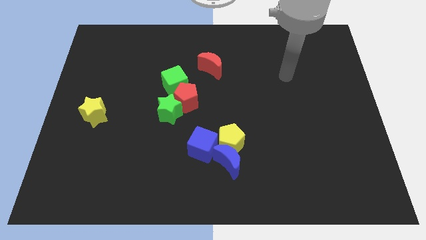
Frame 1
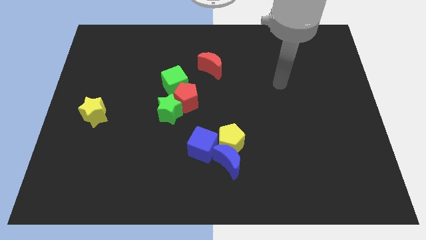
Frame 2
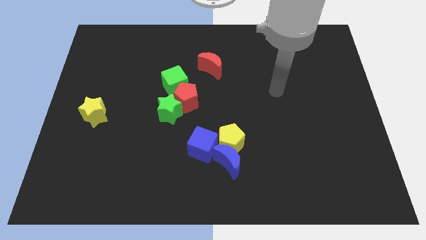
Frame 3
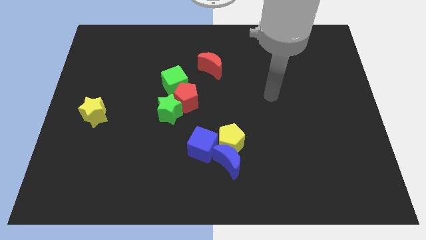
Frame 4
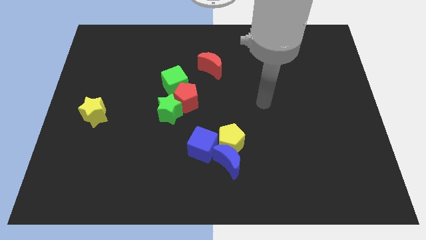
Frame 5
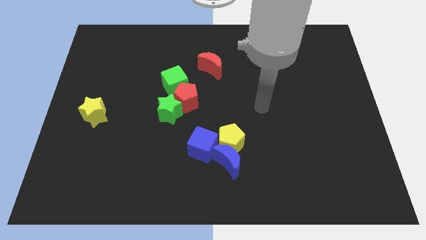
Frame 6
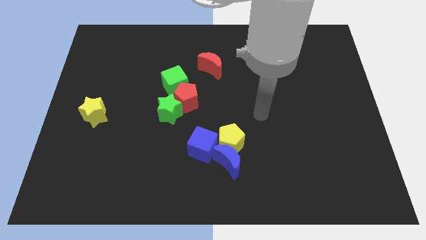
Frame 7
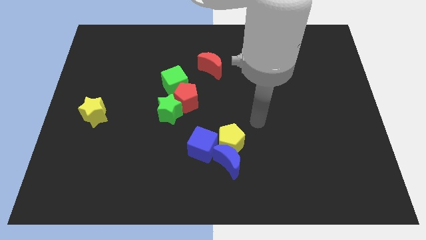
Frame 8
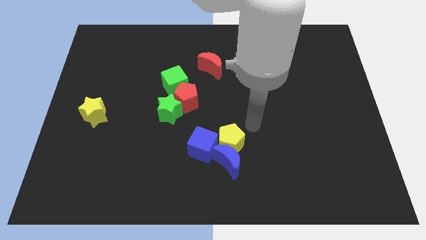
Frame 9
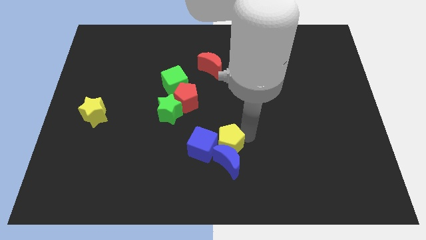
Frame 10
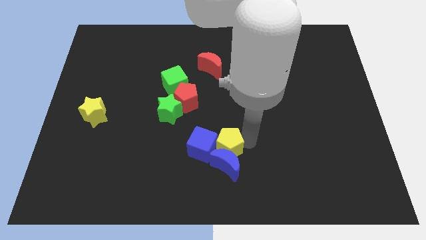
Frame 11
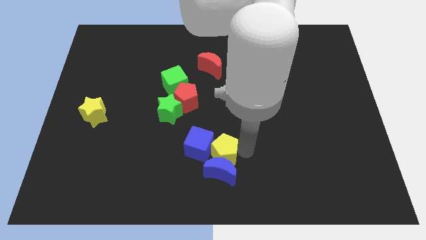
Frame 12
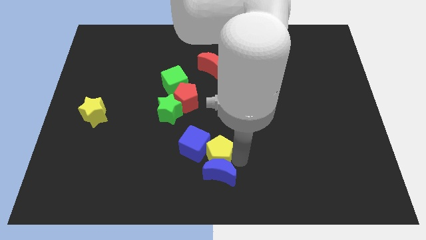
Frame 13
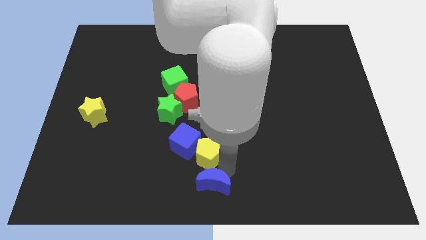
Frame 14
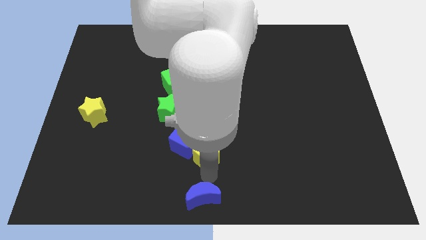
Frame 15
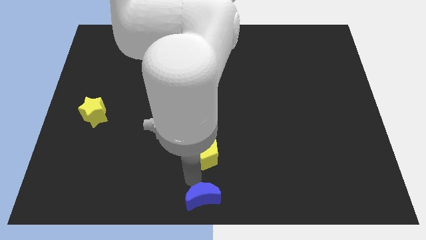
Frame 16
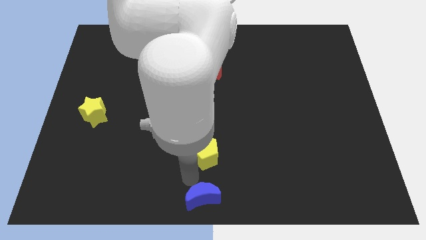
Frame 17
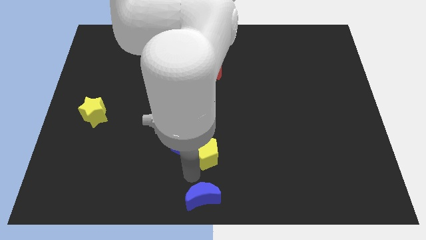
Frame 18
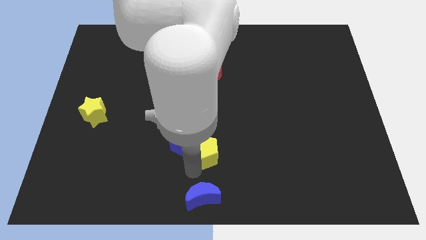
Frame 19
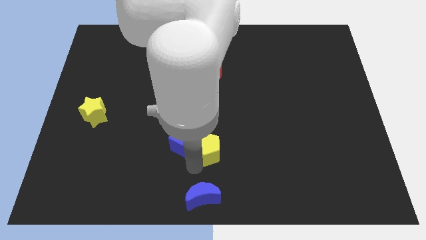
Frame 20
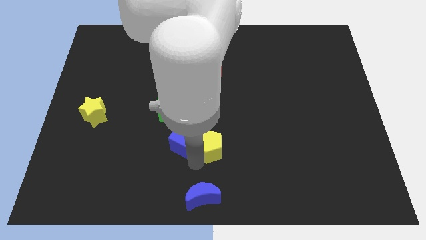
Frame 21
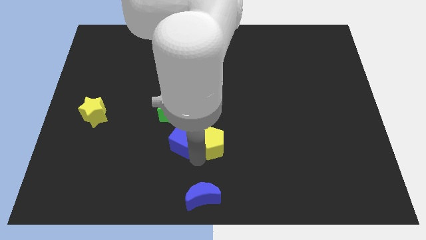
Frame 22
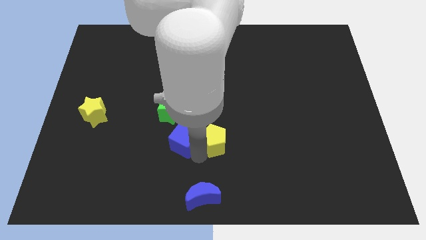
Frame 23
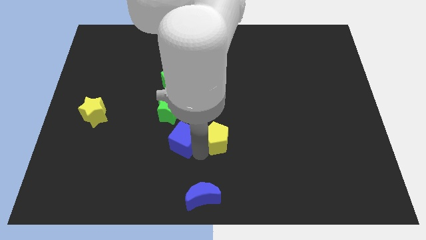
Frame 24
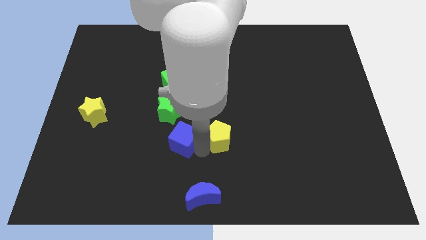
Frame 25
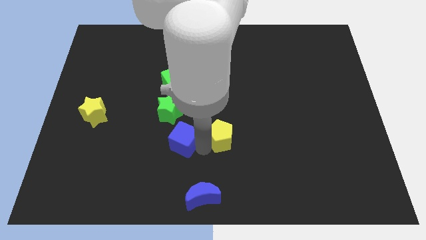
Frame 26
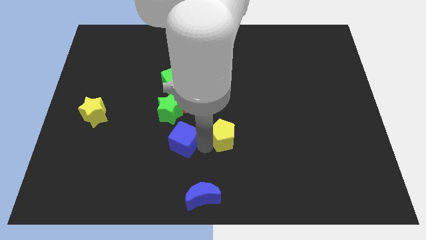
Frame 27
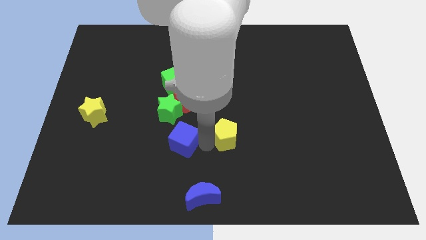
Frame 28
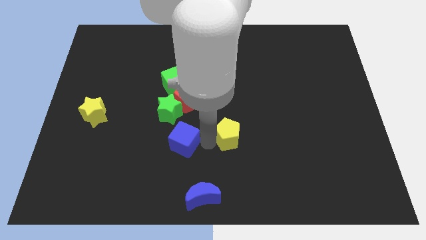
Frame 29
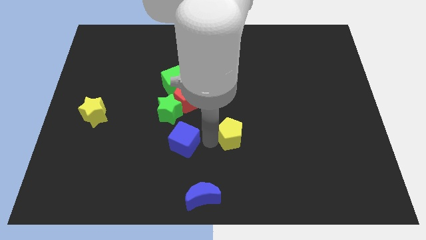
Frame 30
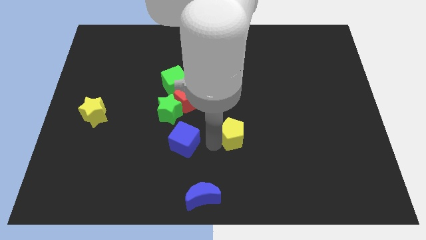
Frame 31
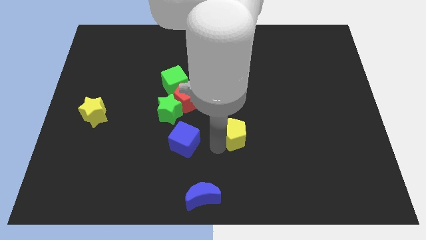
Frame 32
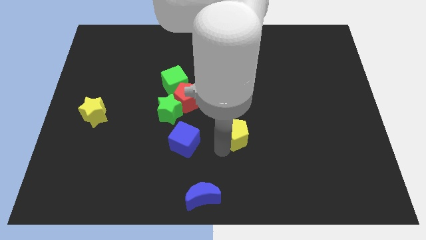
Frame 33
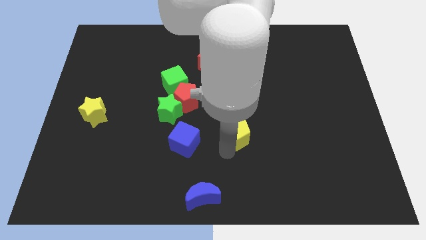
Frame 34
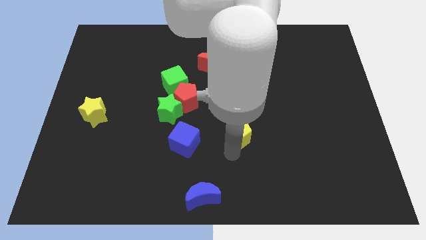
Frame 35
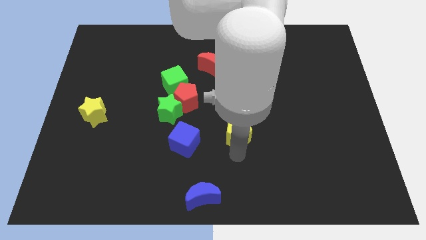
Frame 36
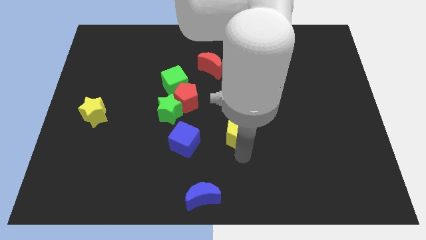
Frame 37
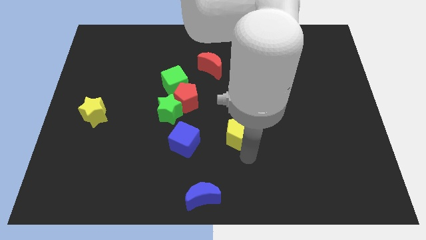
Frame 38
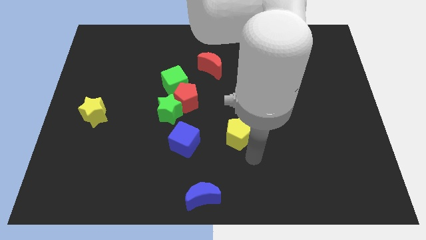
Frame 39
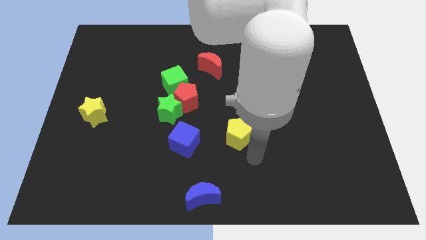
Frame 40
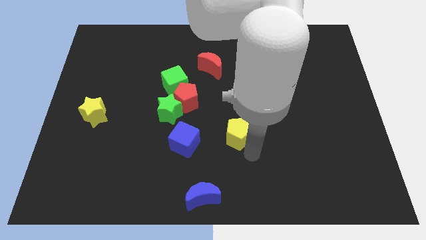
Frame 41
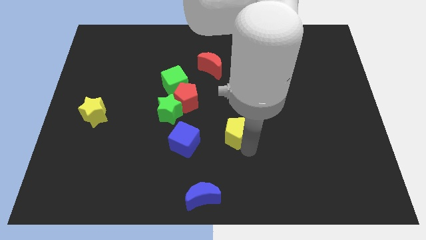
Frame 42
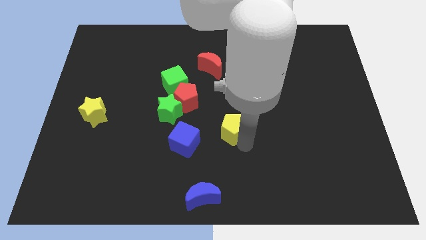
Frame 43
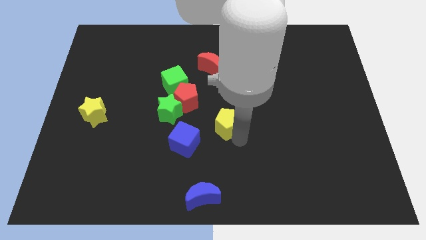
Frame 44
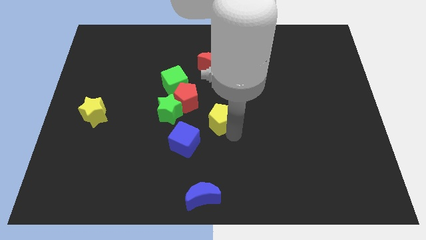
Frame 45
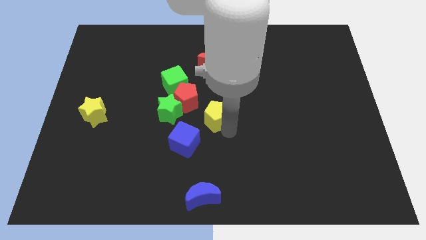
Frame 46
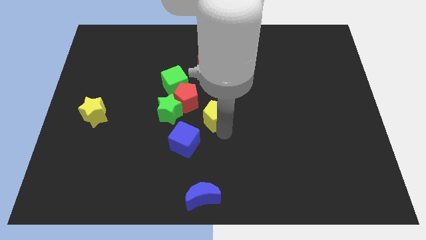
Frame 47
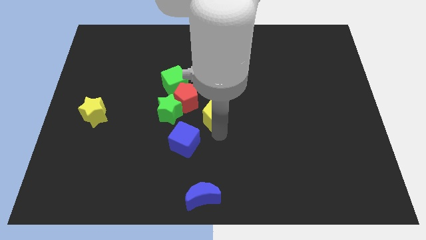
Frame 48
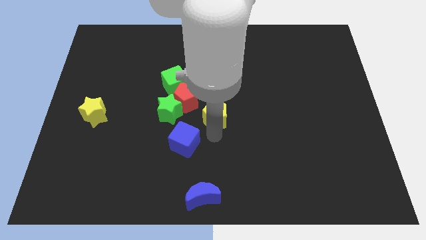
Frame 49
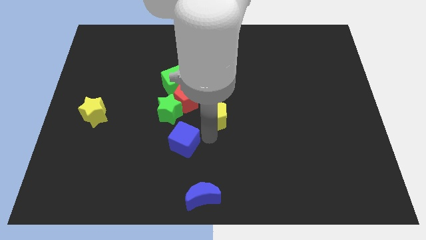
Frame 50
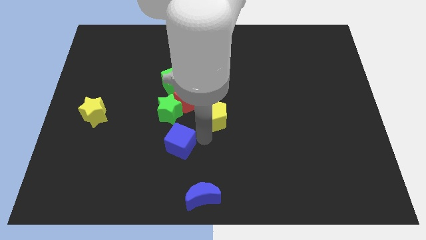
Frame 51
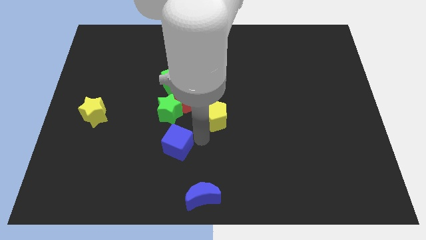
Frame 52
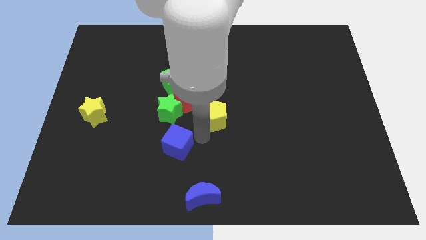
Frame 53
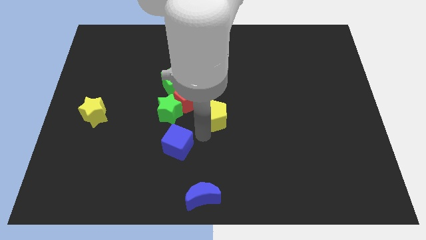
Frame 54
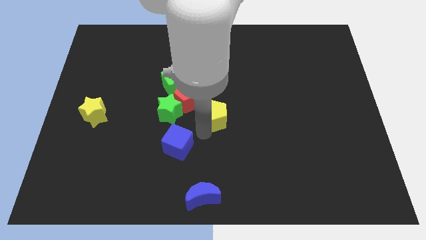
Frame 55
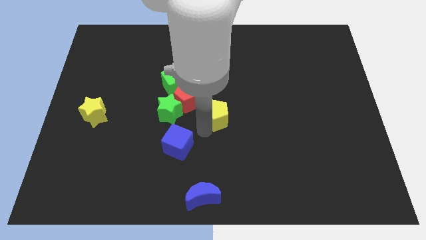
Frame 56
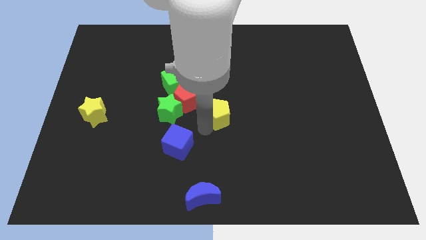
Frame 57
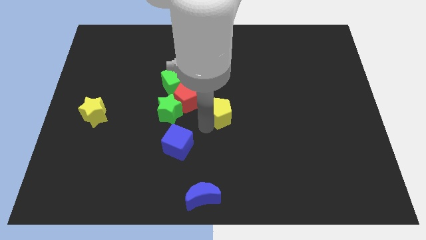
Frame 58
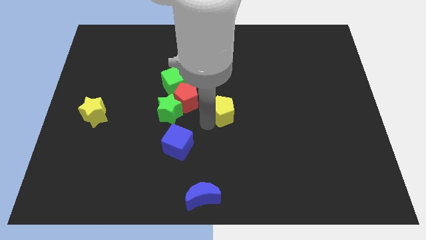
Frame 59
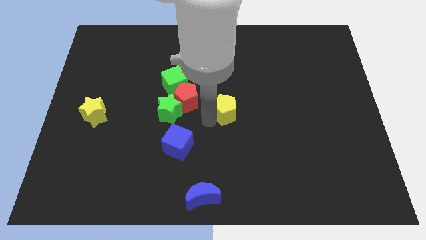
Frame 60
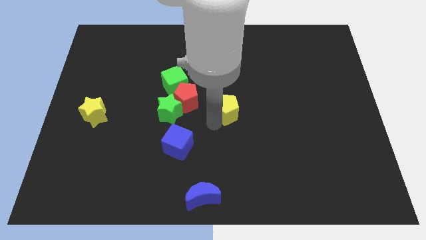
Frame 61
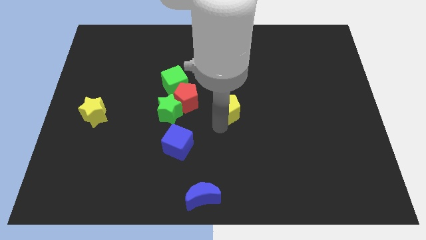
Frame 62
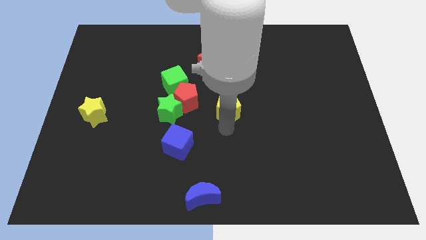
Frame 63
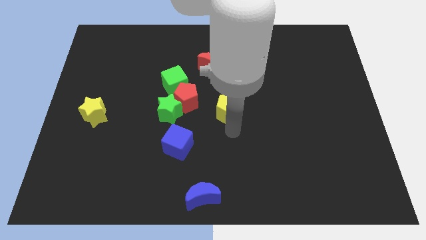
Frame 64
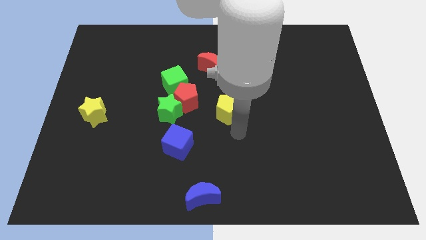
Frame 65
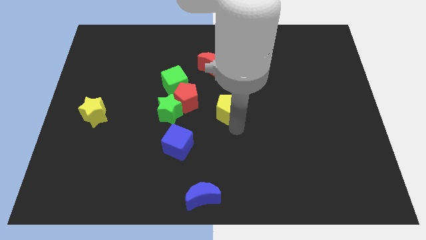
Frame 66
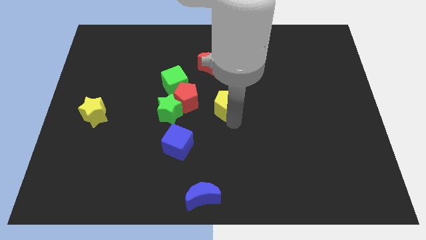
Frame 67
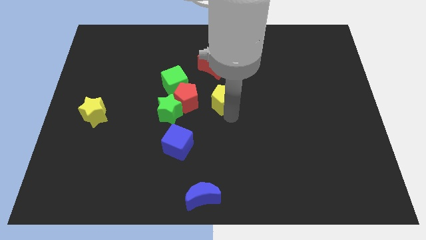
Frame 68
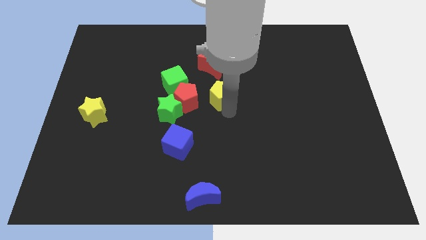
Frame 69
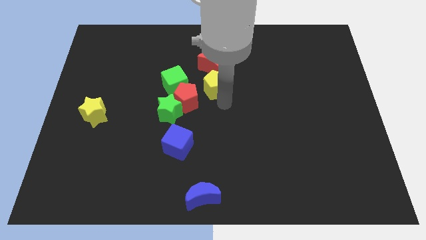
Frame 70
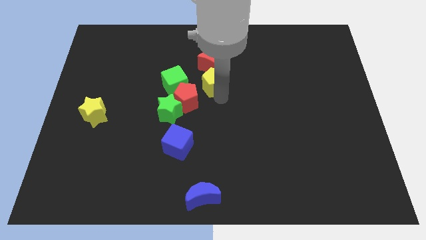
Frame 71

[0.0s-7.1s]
move the yellow pentagon close to the red moon

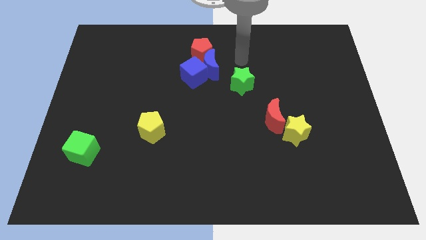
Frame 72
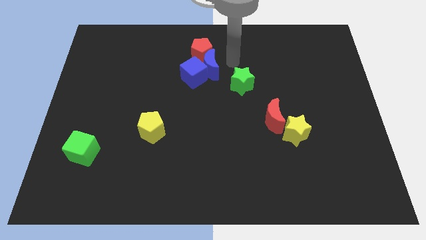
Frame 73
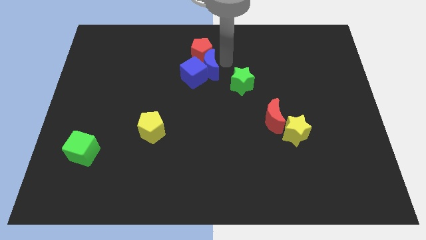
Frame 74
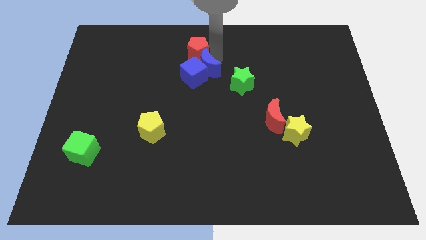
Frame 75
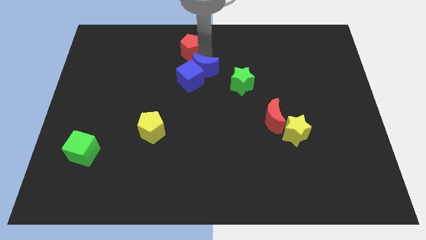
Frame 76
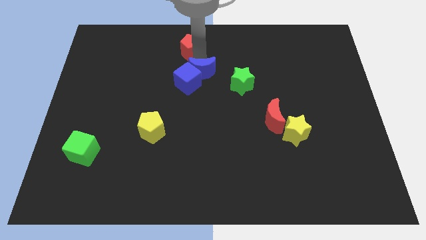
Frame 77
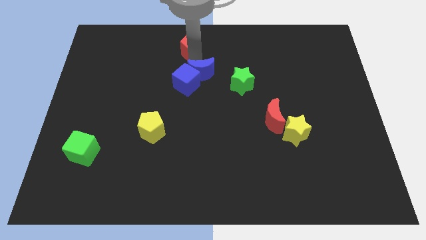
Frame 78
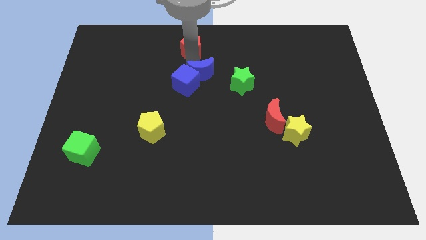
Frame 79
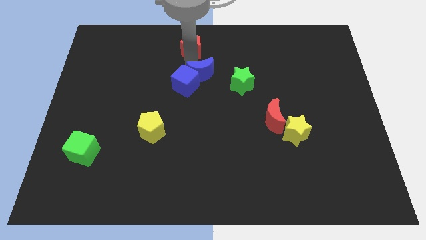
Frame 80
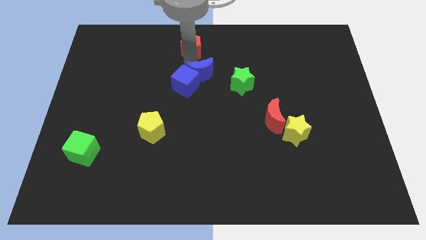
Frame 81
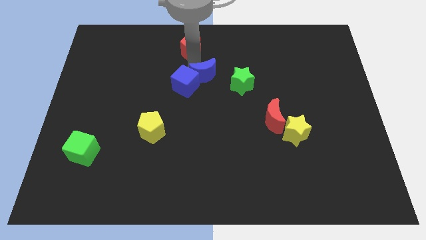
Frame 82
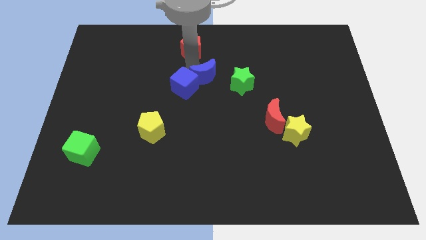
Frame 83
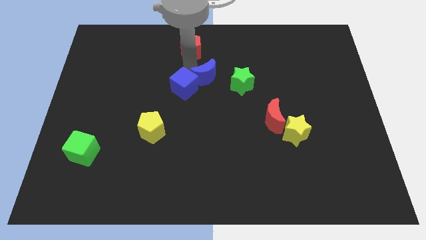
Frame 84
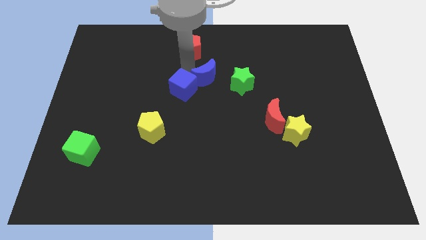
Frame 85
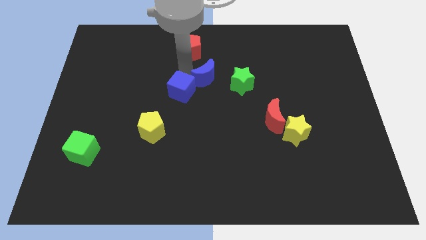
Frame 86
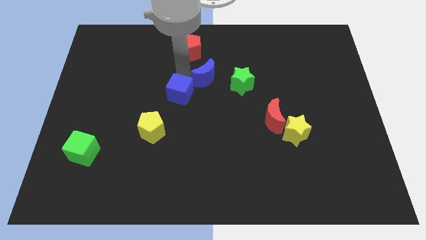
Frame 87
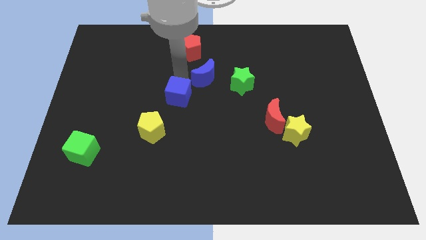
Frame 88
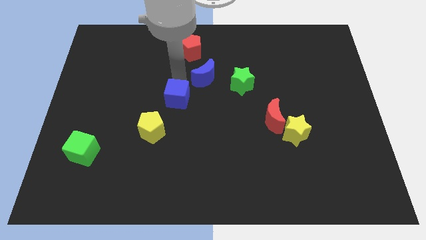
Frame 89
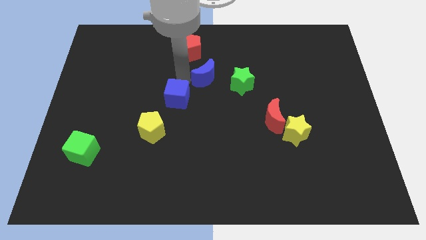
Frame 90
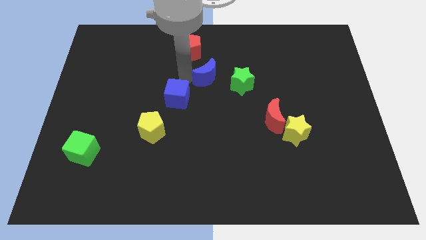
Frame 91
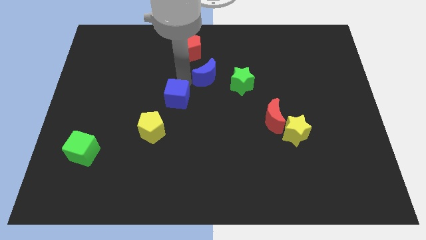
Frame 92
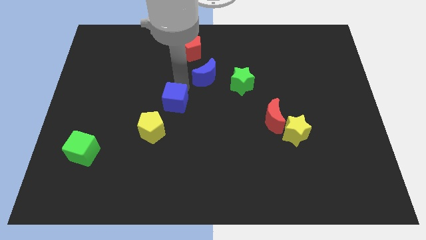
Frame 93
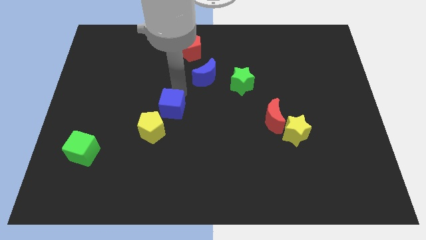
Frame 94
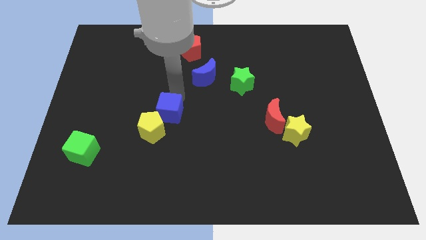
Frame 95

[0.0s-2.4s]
put the blue cube next to the yellow pentagon
